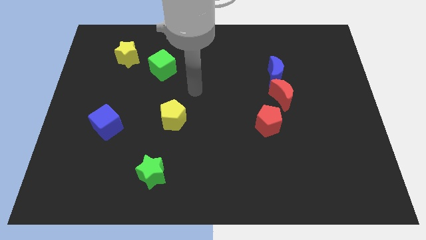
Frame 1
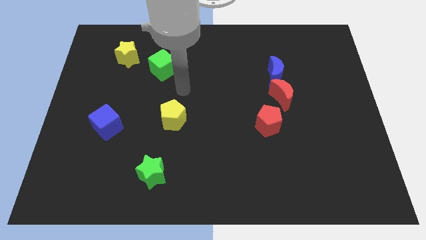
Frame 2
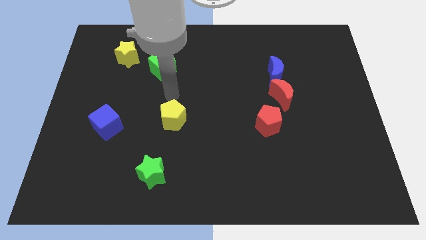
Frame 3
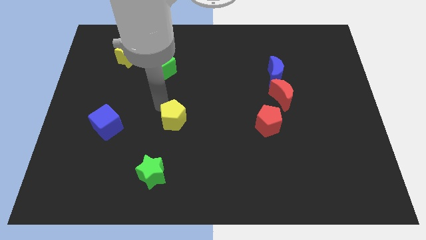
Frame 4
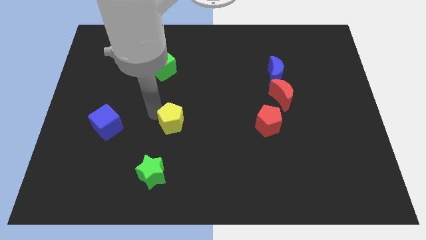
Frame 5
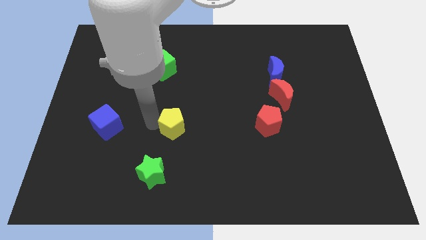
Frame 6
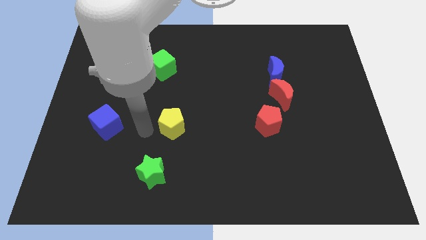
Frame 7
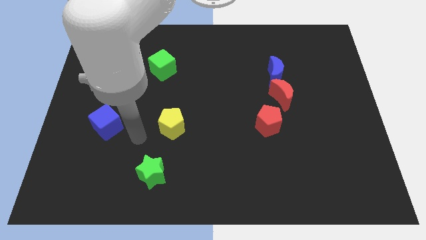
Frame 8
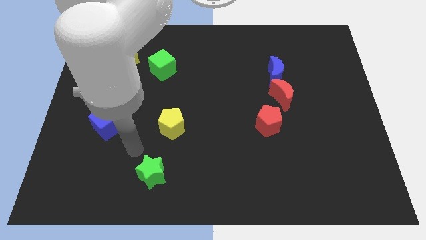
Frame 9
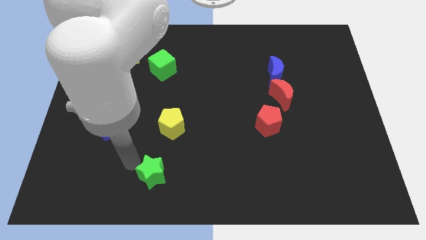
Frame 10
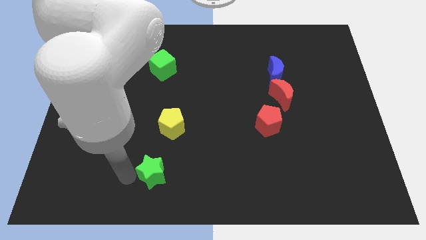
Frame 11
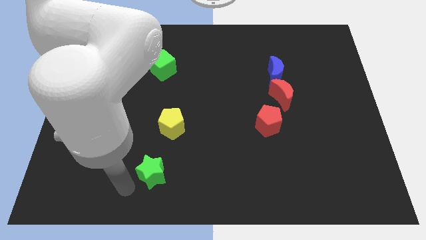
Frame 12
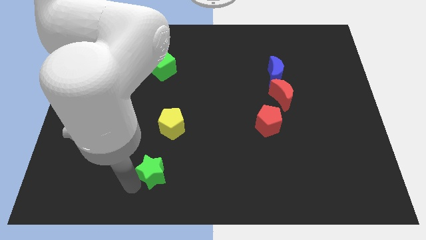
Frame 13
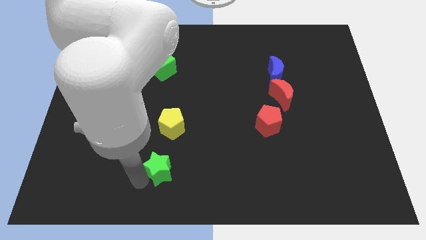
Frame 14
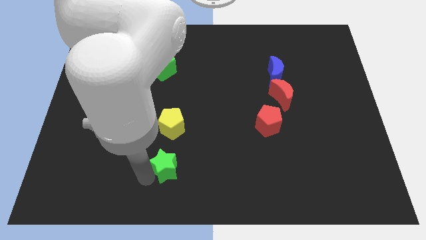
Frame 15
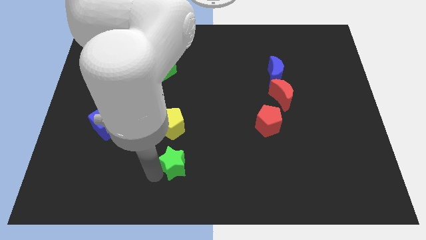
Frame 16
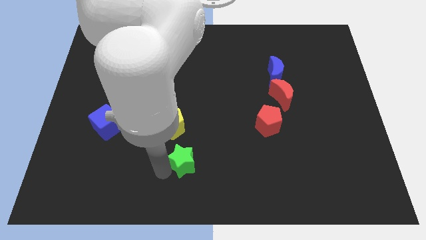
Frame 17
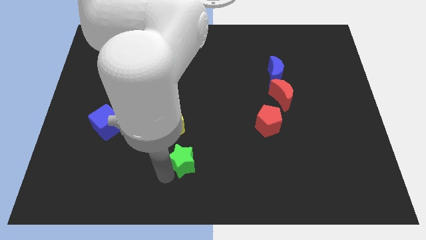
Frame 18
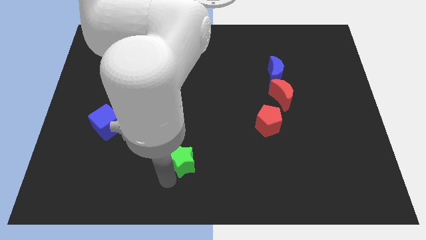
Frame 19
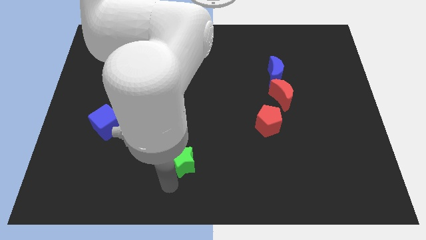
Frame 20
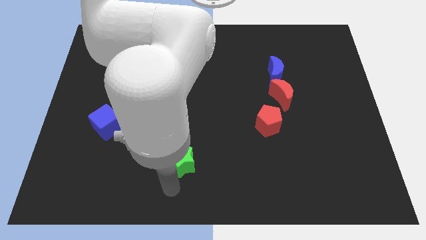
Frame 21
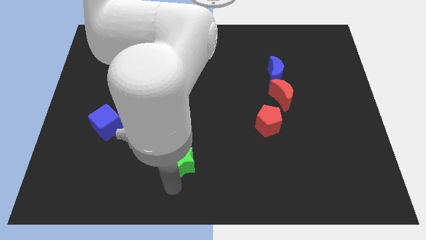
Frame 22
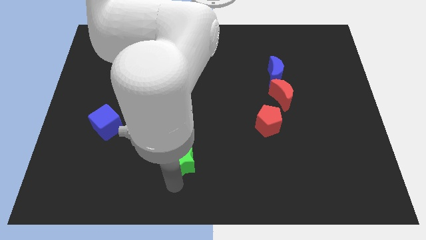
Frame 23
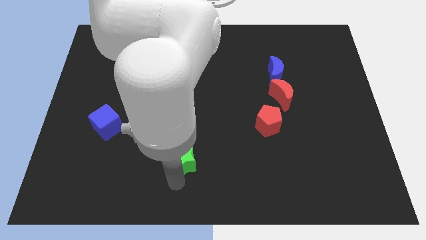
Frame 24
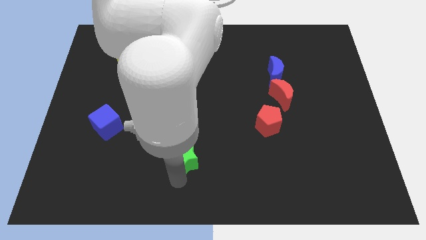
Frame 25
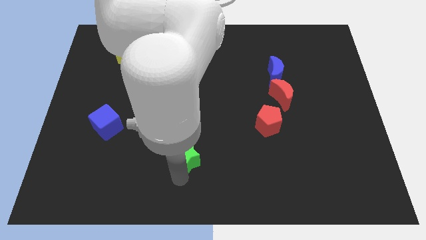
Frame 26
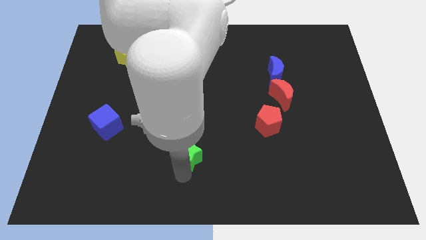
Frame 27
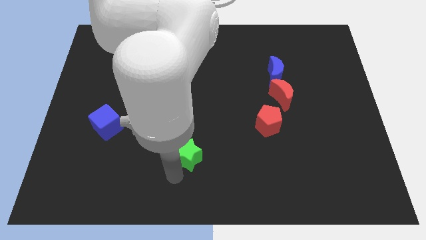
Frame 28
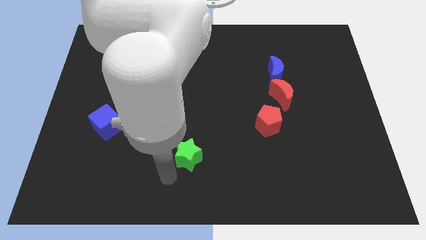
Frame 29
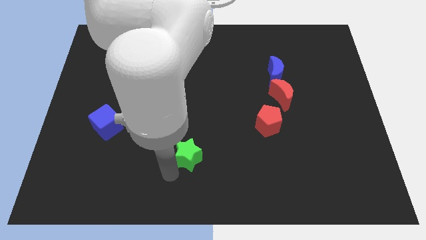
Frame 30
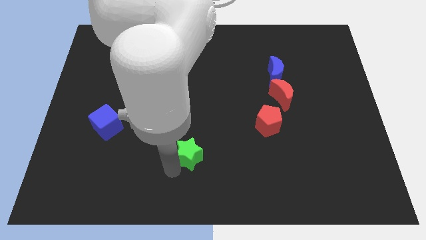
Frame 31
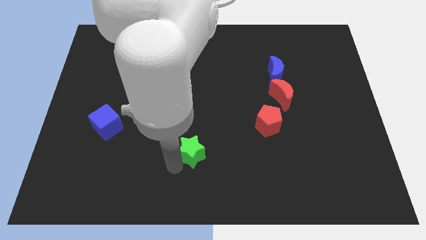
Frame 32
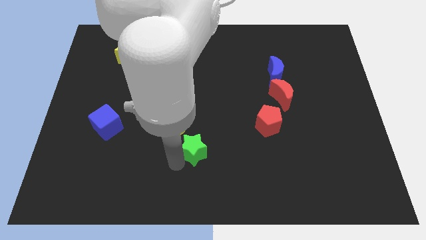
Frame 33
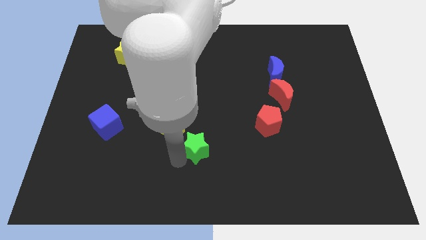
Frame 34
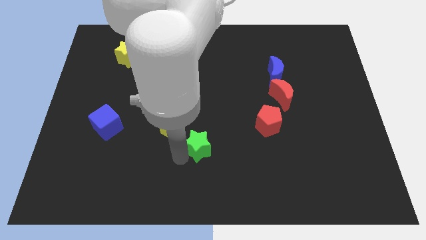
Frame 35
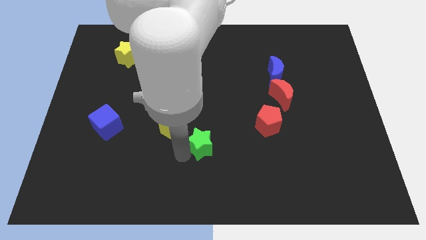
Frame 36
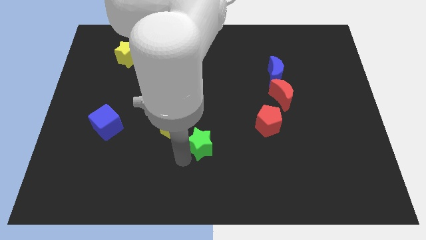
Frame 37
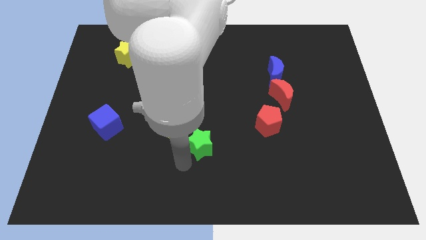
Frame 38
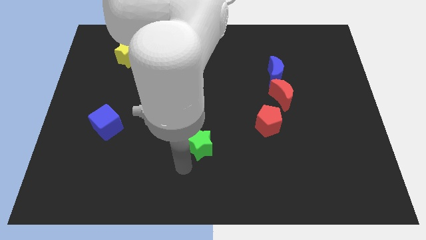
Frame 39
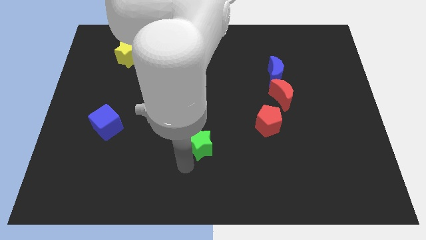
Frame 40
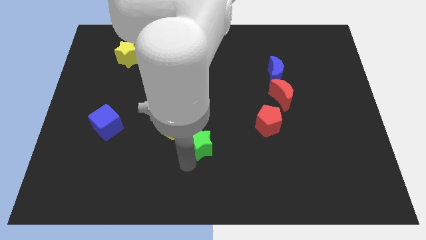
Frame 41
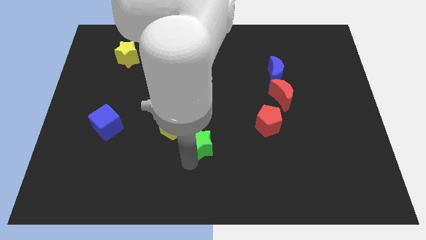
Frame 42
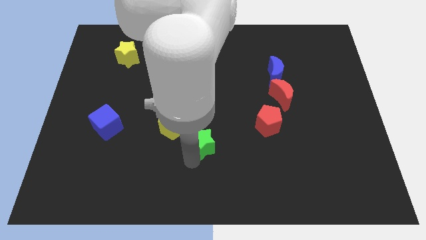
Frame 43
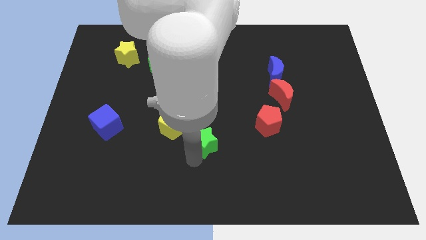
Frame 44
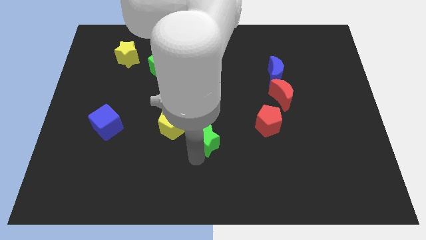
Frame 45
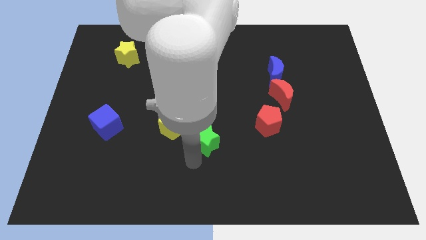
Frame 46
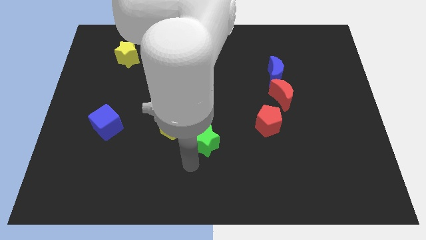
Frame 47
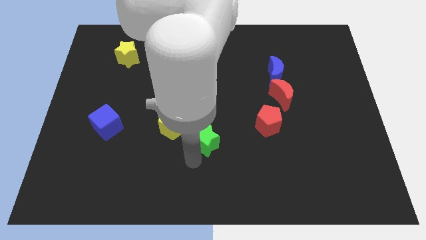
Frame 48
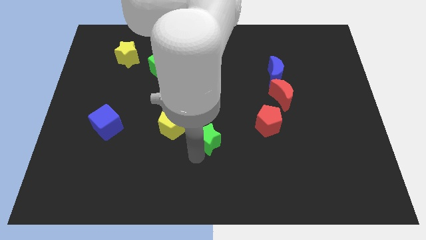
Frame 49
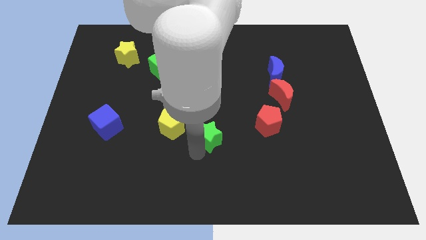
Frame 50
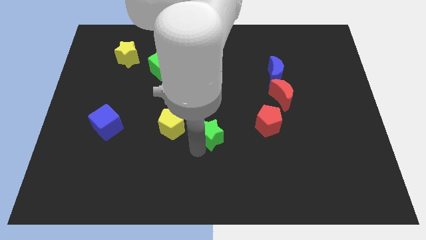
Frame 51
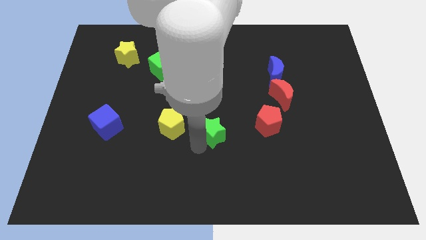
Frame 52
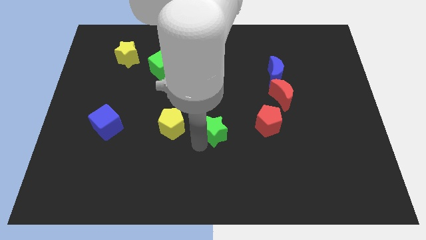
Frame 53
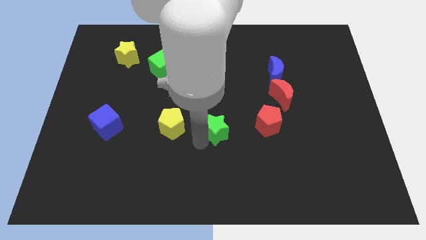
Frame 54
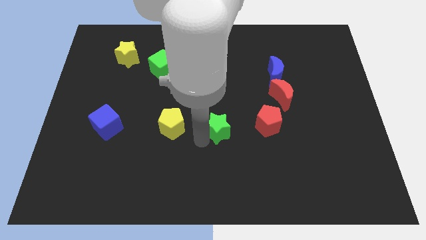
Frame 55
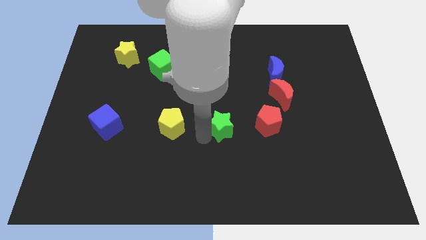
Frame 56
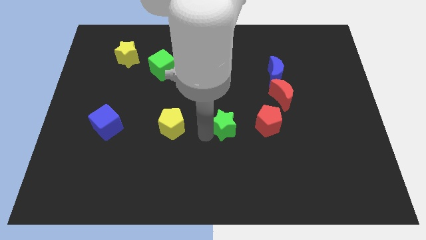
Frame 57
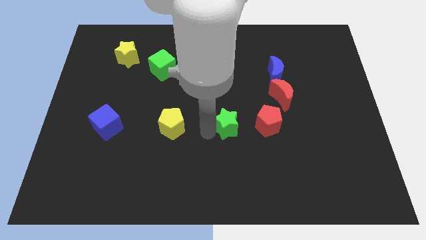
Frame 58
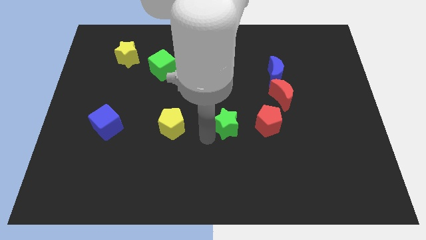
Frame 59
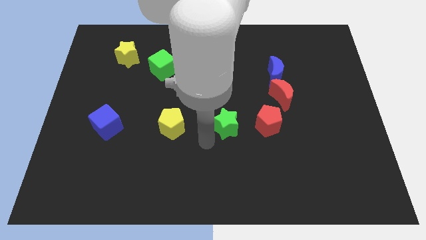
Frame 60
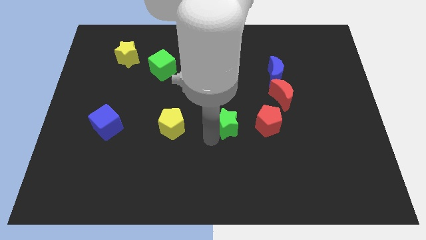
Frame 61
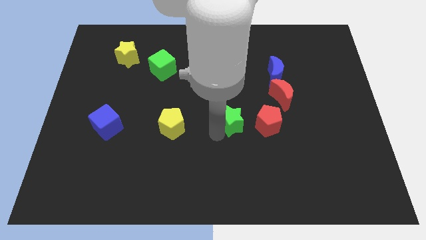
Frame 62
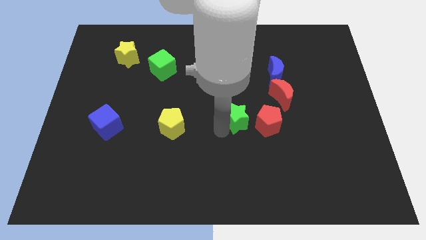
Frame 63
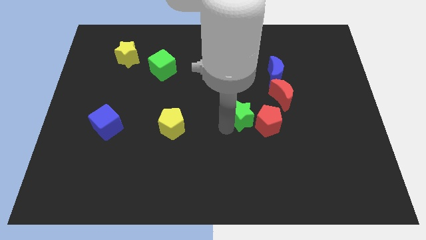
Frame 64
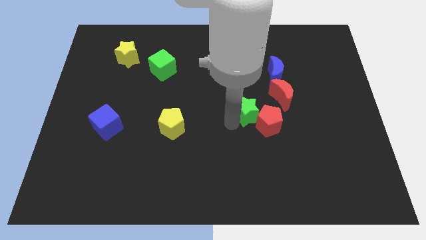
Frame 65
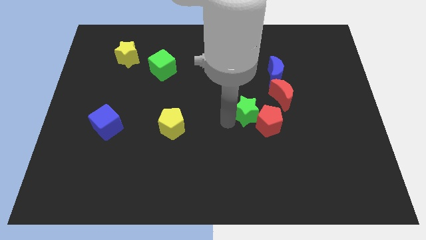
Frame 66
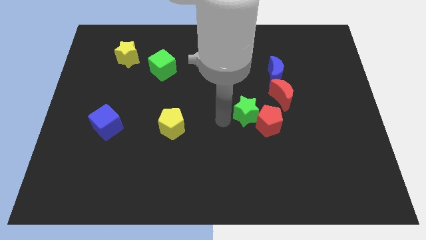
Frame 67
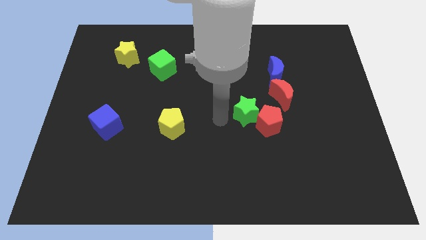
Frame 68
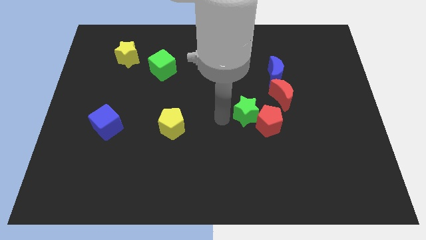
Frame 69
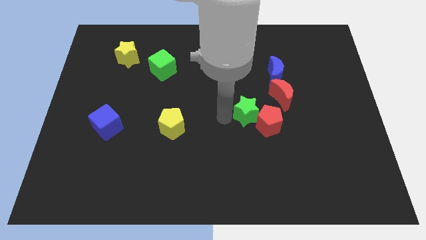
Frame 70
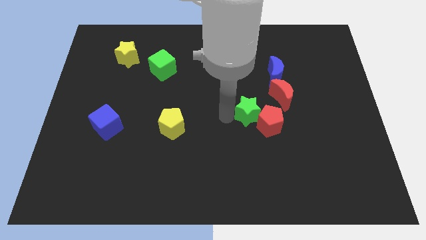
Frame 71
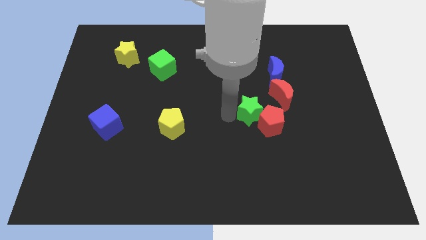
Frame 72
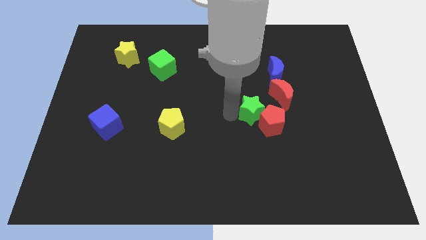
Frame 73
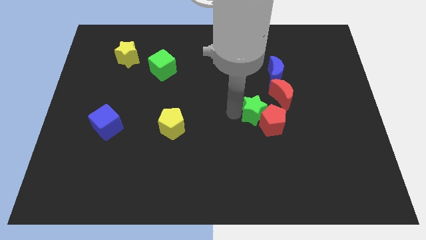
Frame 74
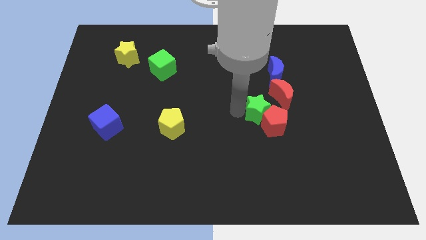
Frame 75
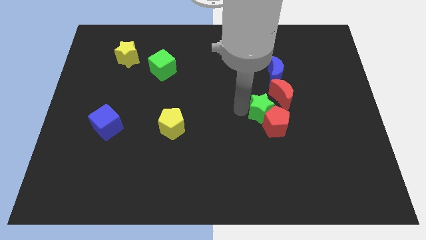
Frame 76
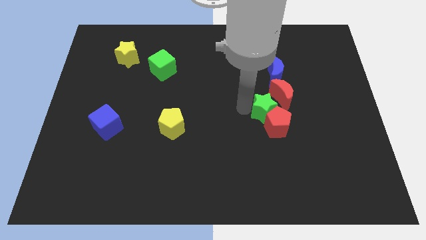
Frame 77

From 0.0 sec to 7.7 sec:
put the green star to the red moon

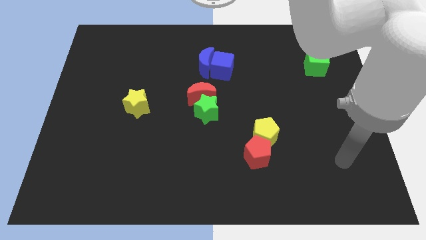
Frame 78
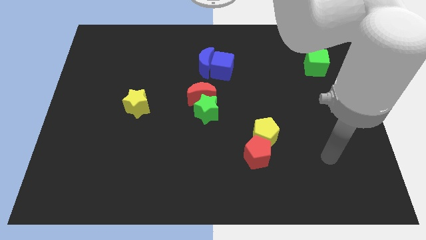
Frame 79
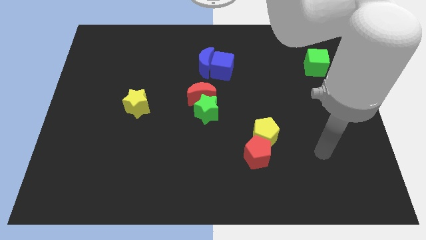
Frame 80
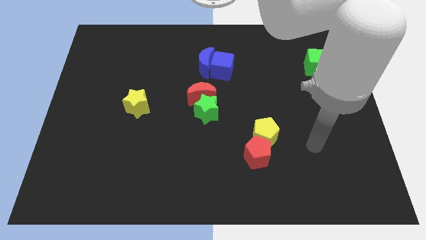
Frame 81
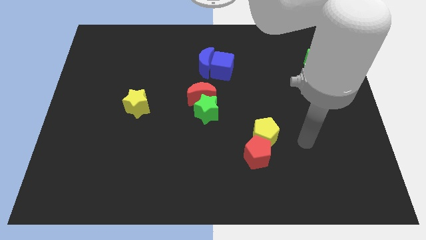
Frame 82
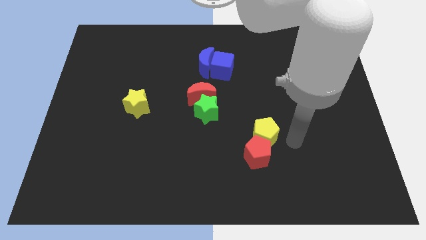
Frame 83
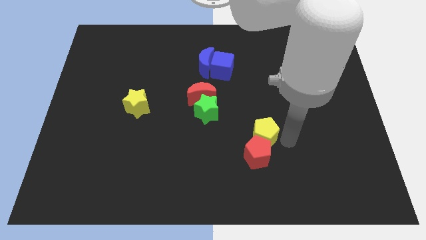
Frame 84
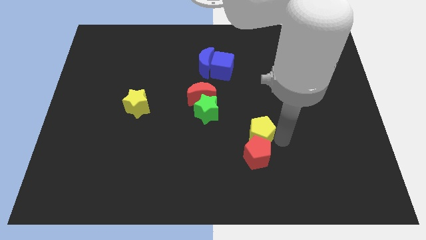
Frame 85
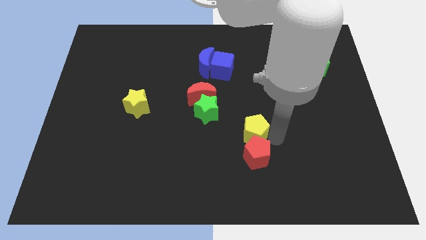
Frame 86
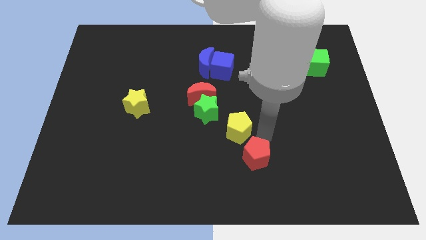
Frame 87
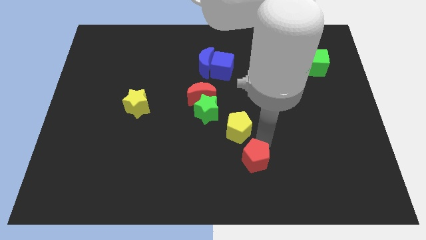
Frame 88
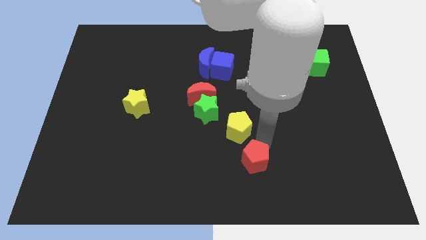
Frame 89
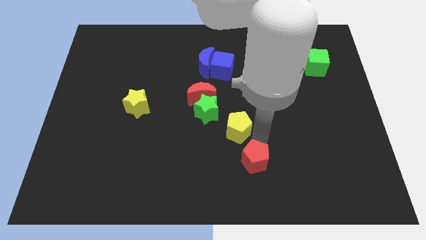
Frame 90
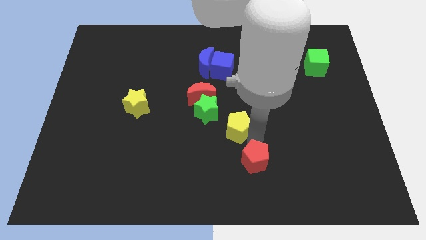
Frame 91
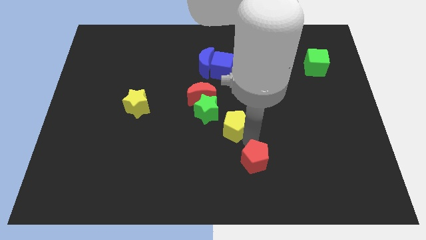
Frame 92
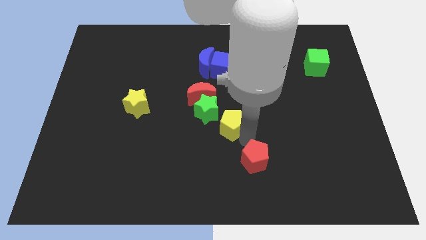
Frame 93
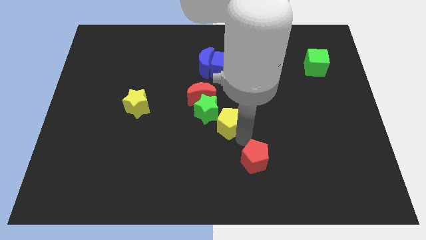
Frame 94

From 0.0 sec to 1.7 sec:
move the yellow pentagon to the green star
